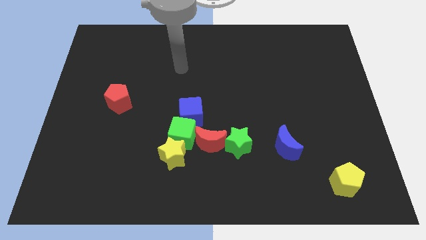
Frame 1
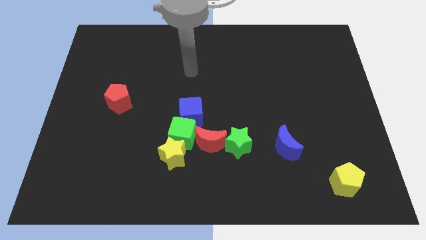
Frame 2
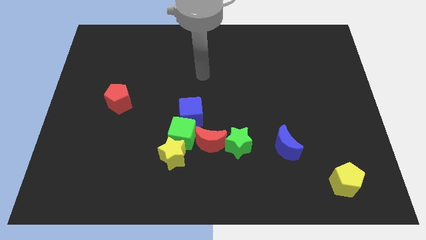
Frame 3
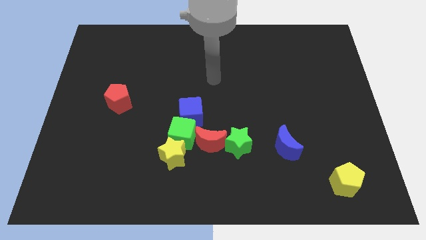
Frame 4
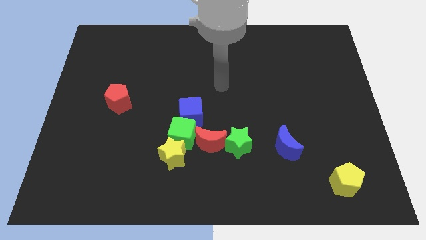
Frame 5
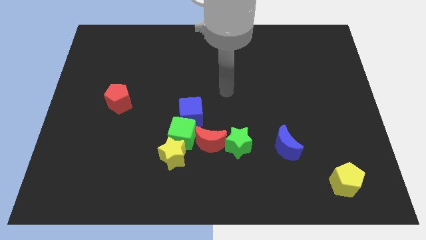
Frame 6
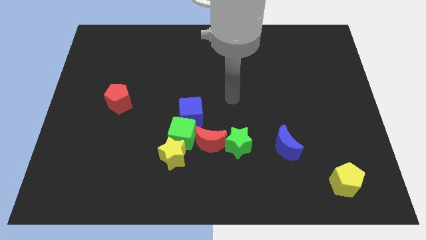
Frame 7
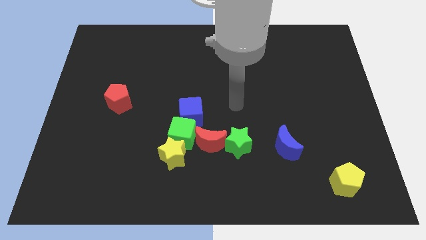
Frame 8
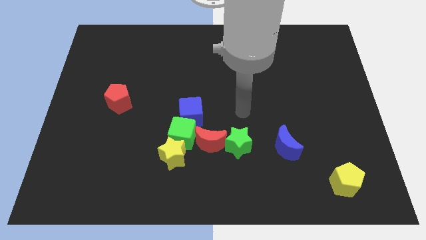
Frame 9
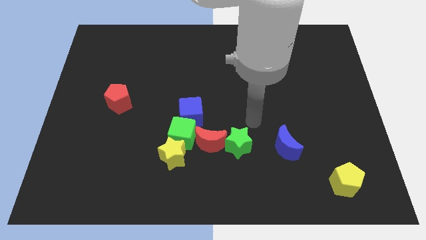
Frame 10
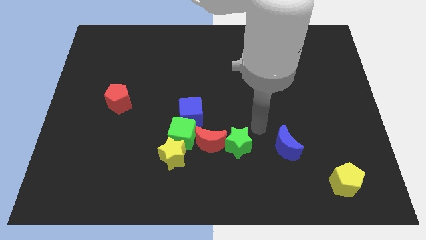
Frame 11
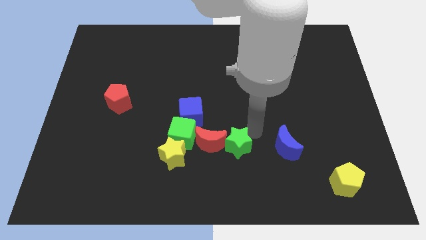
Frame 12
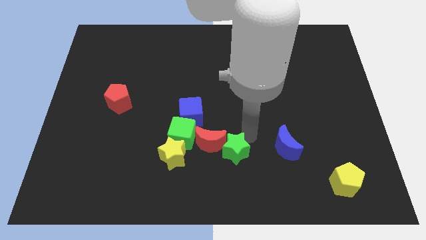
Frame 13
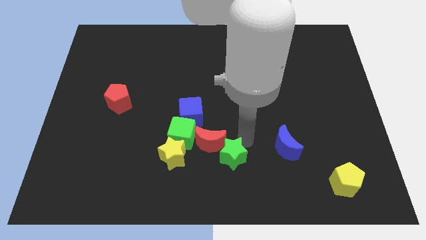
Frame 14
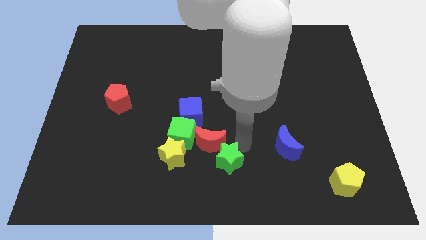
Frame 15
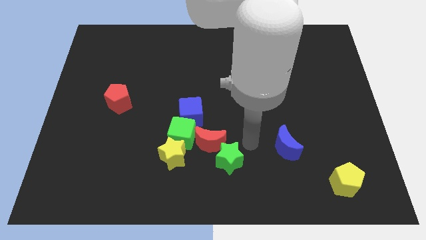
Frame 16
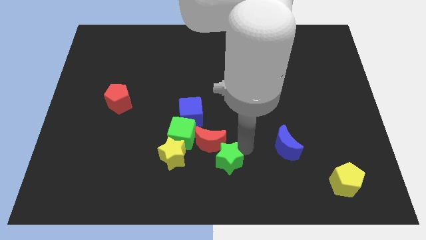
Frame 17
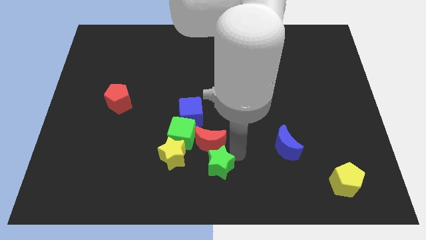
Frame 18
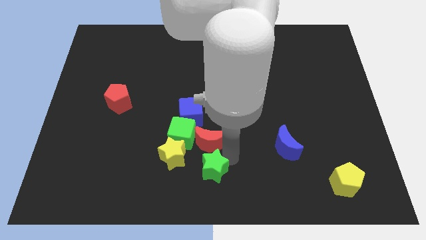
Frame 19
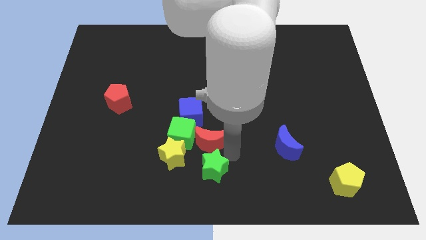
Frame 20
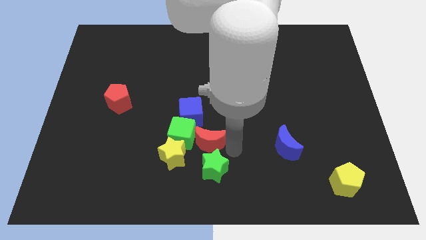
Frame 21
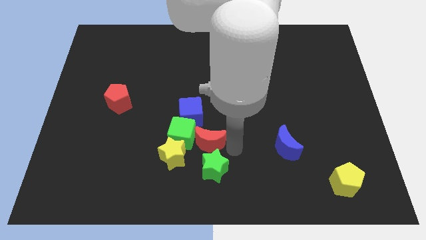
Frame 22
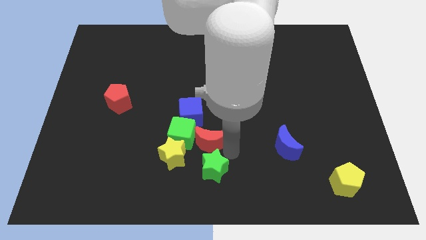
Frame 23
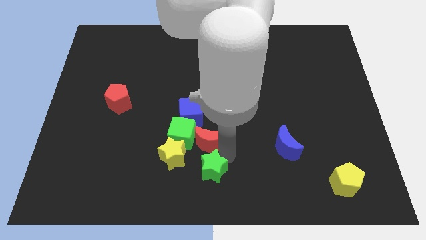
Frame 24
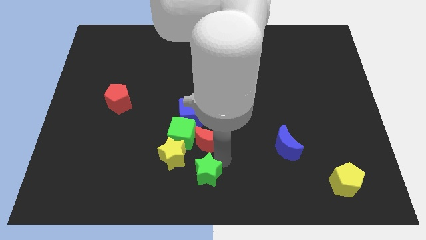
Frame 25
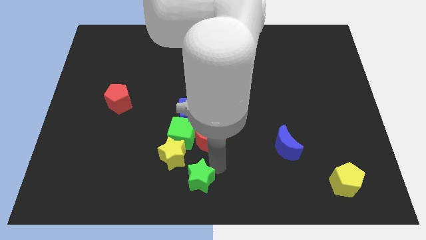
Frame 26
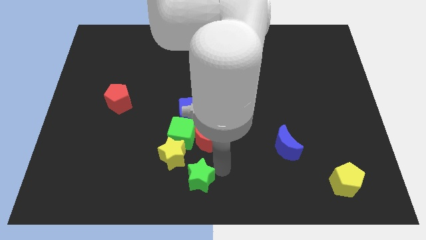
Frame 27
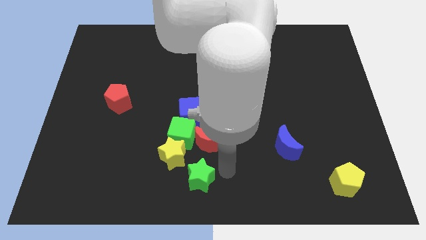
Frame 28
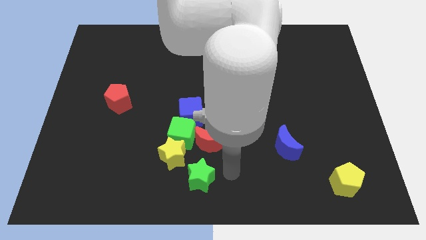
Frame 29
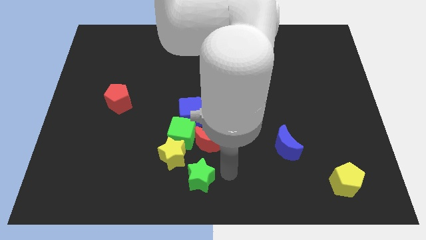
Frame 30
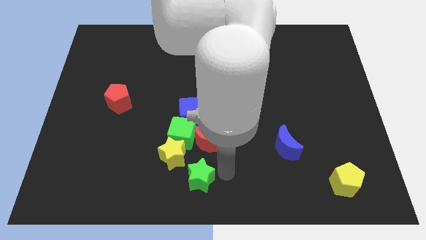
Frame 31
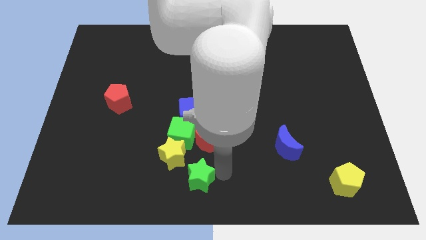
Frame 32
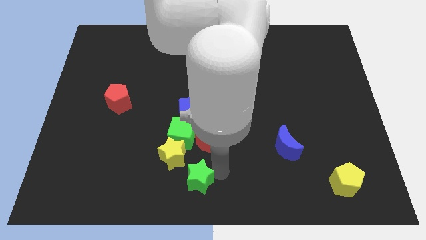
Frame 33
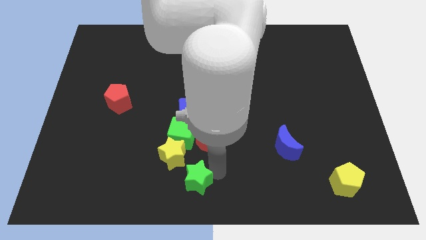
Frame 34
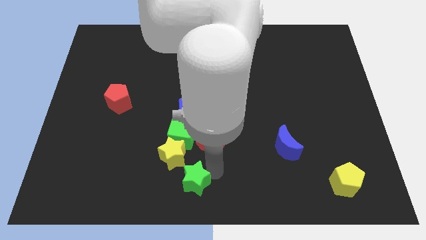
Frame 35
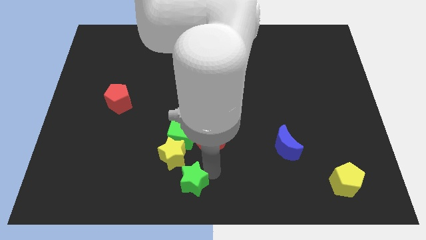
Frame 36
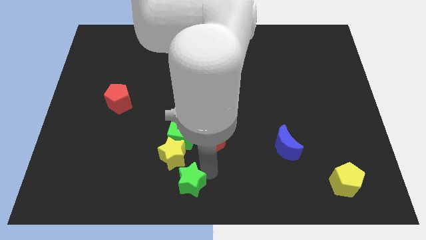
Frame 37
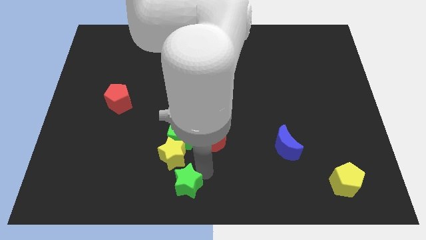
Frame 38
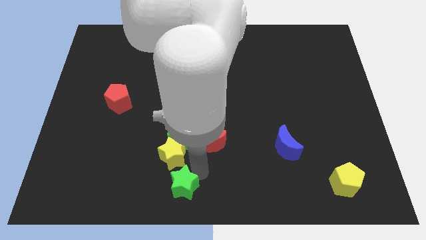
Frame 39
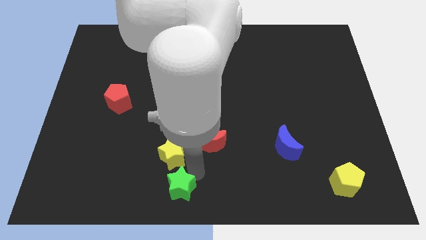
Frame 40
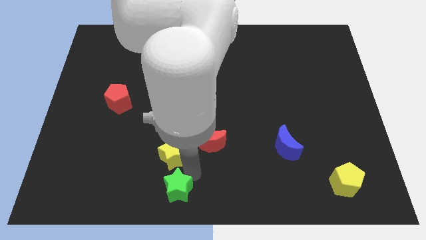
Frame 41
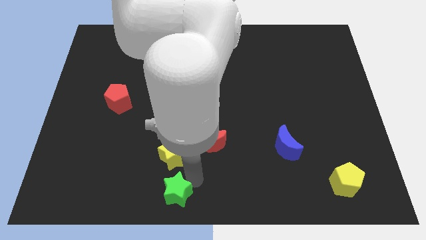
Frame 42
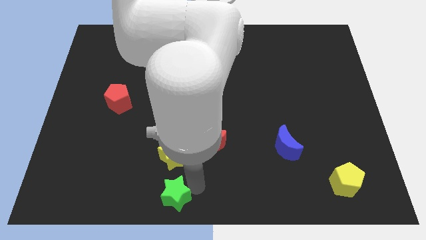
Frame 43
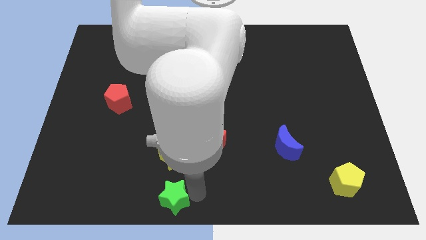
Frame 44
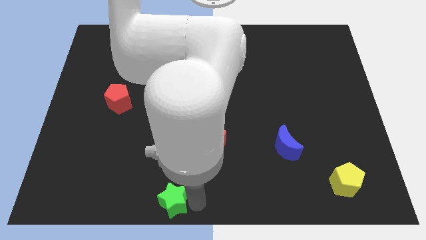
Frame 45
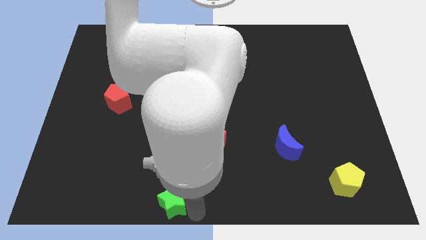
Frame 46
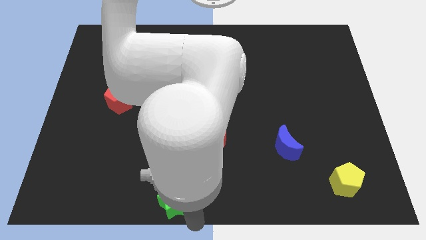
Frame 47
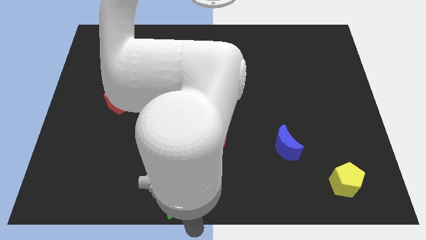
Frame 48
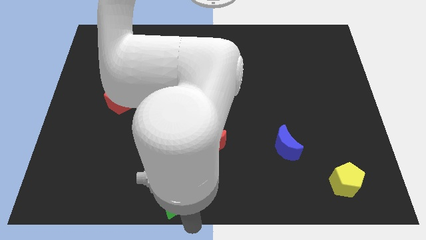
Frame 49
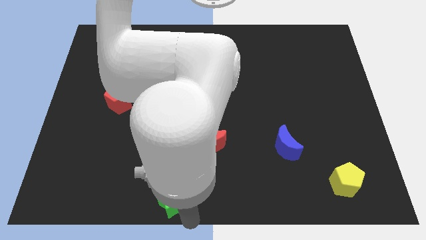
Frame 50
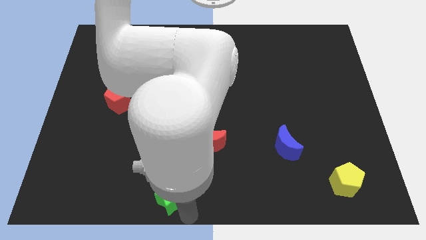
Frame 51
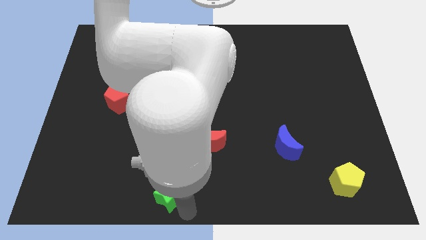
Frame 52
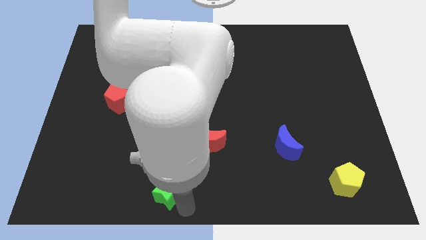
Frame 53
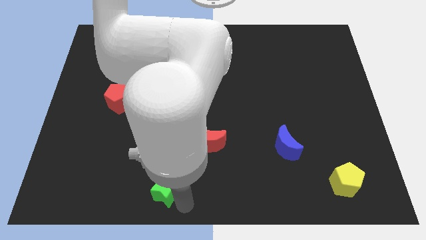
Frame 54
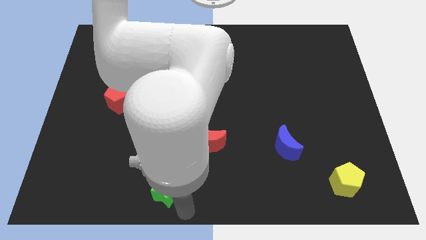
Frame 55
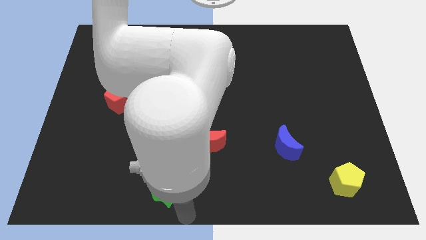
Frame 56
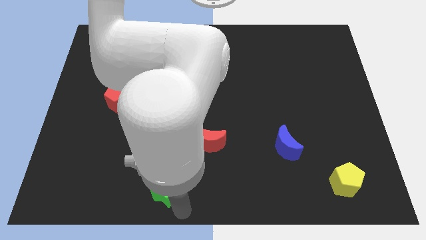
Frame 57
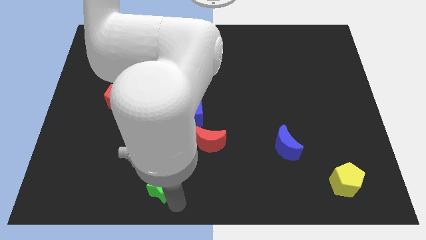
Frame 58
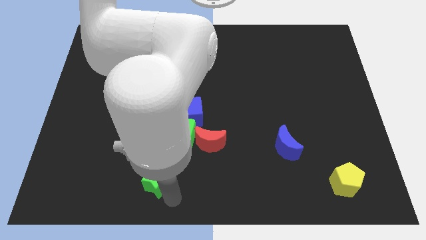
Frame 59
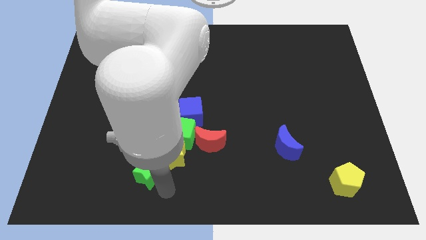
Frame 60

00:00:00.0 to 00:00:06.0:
push the green star left of the yellow star

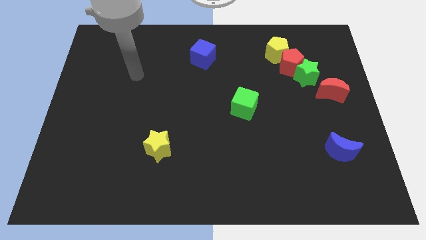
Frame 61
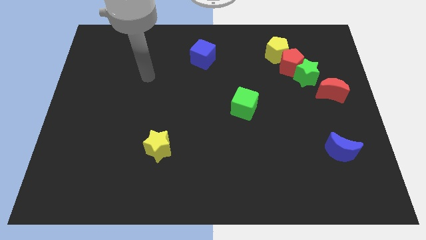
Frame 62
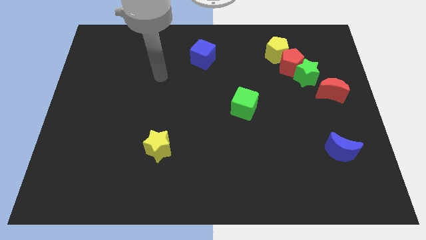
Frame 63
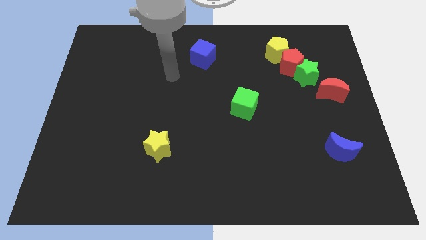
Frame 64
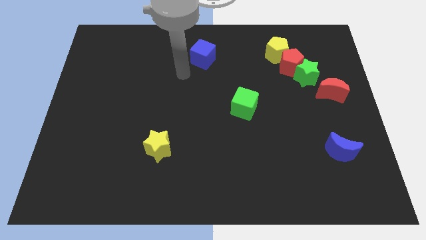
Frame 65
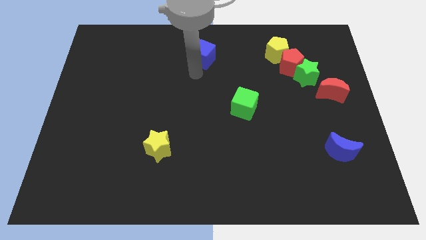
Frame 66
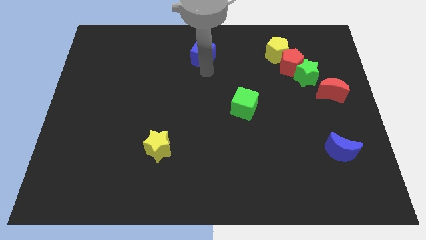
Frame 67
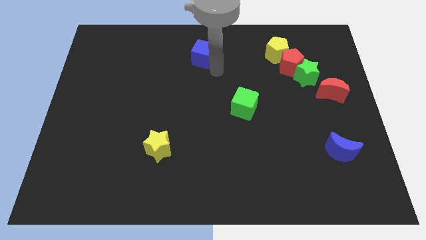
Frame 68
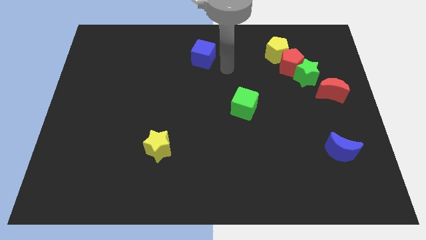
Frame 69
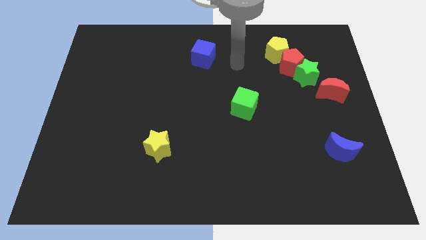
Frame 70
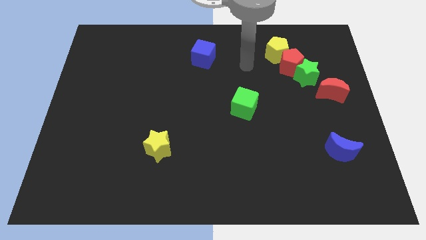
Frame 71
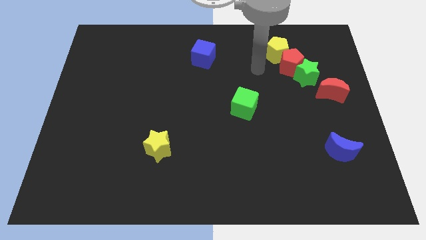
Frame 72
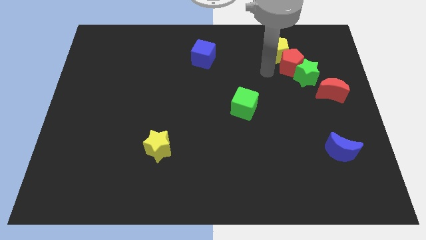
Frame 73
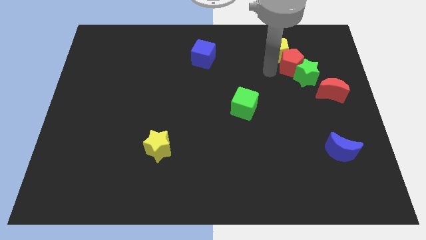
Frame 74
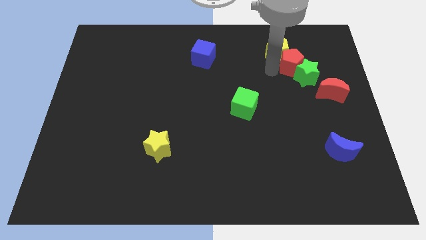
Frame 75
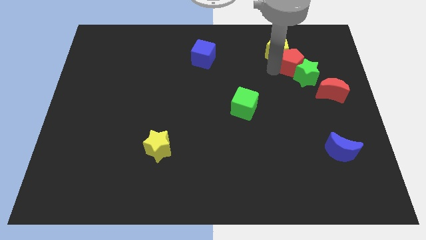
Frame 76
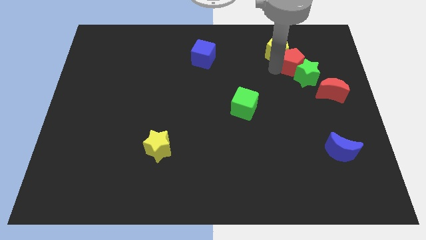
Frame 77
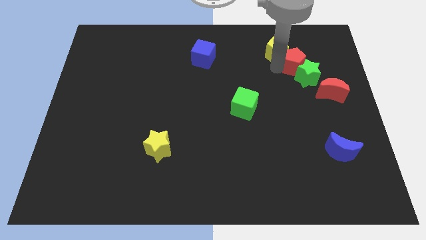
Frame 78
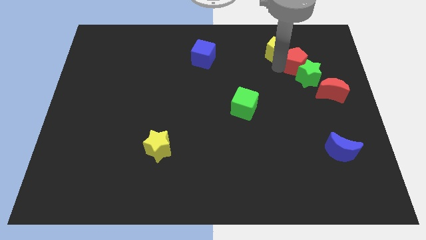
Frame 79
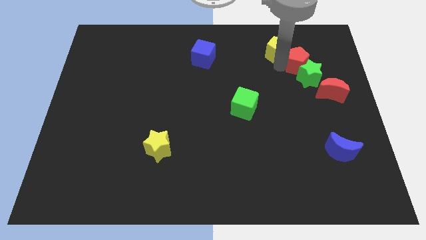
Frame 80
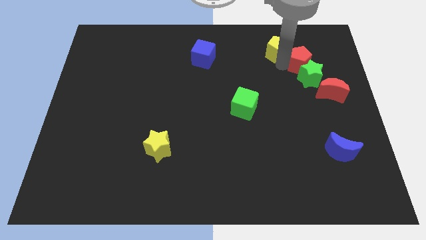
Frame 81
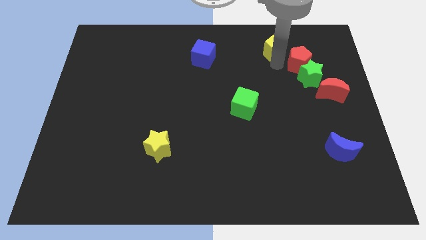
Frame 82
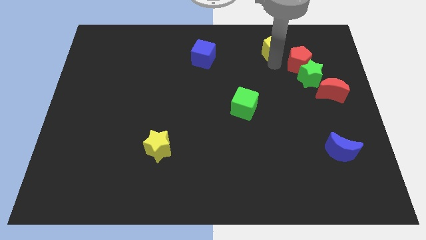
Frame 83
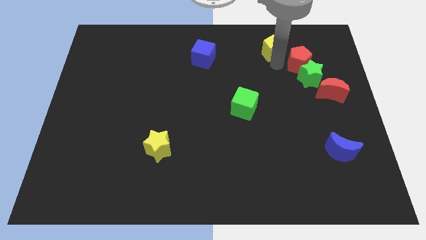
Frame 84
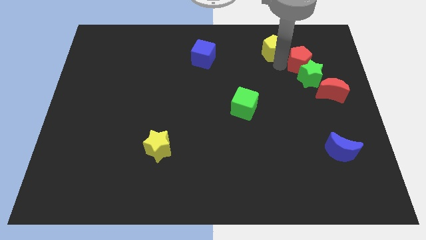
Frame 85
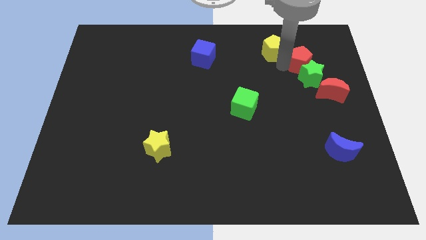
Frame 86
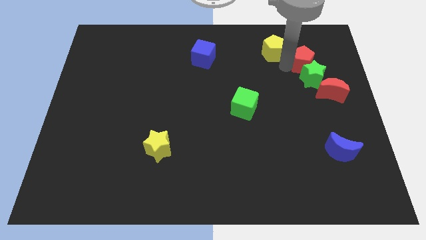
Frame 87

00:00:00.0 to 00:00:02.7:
push the red pentagon diagonally up and to the right of the green star
